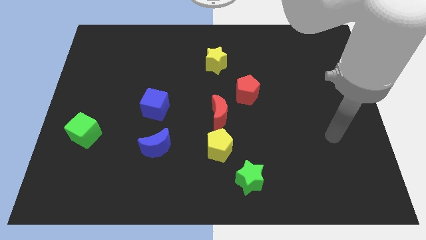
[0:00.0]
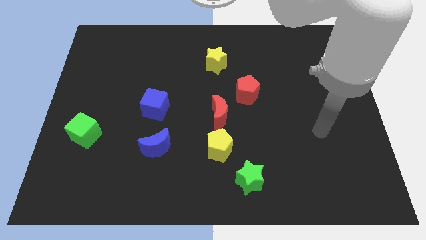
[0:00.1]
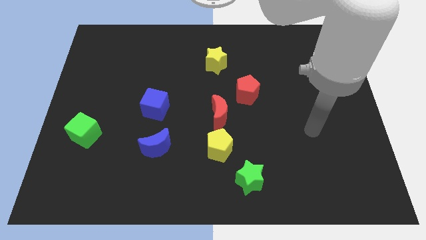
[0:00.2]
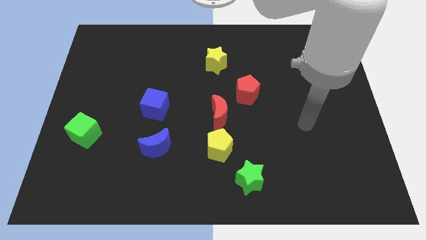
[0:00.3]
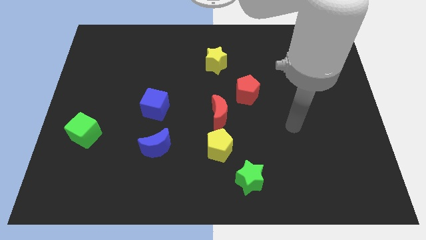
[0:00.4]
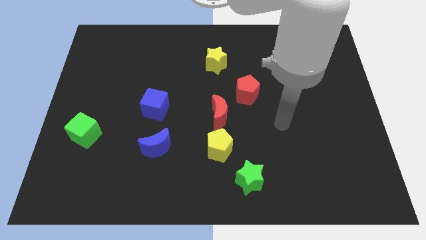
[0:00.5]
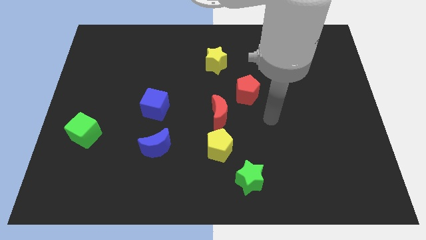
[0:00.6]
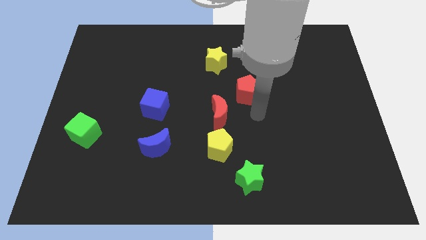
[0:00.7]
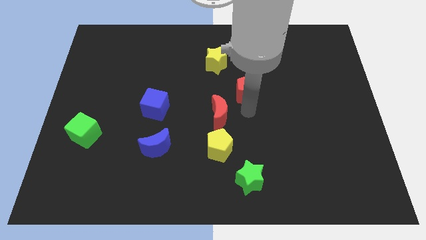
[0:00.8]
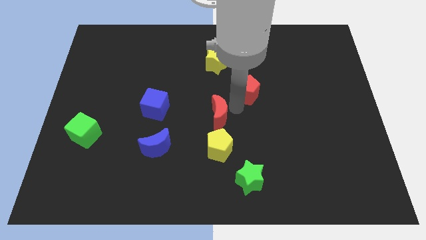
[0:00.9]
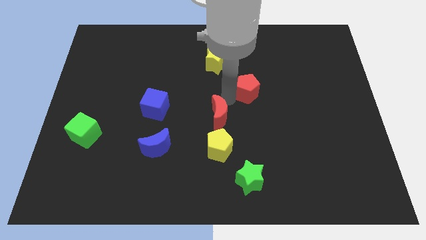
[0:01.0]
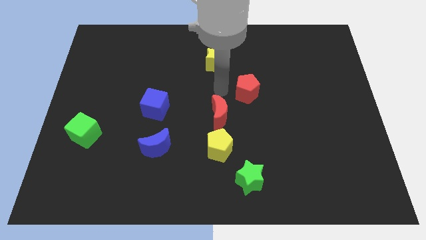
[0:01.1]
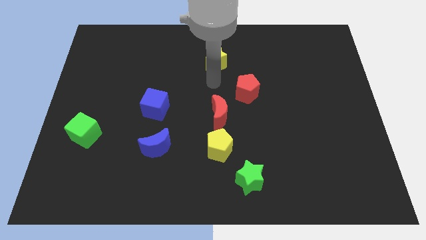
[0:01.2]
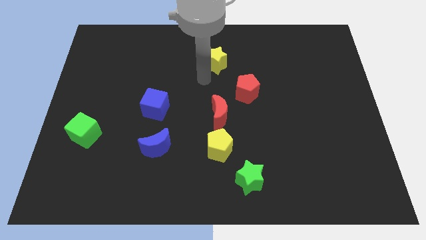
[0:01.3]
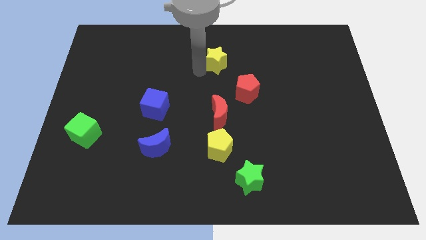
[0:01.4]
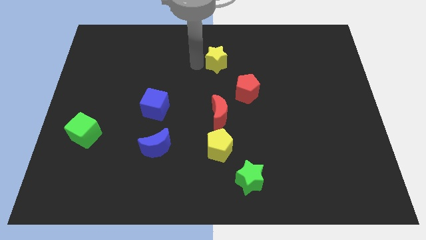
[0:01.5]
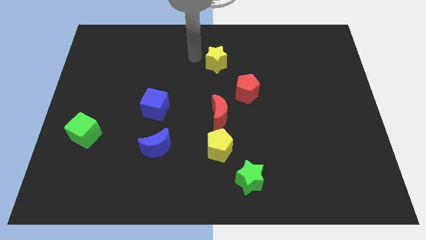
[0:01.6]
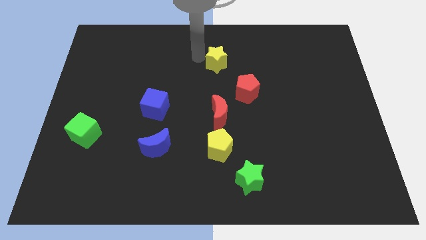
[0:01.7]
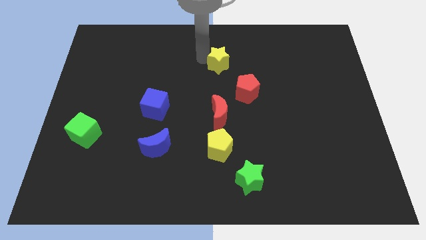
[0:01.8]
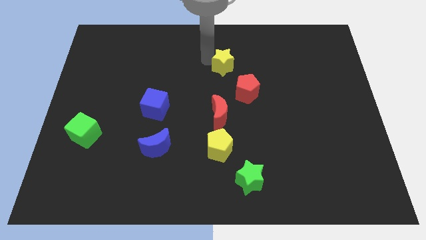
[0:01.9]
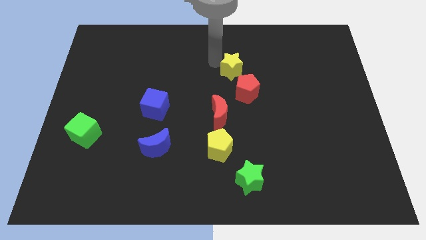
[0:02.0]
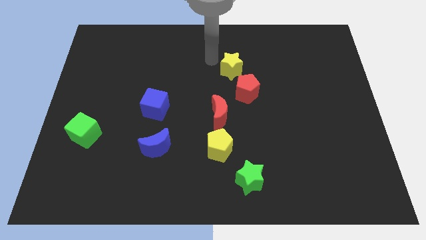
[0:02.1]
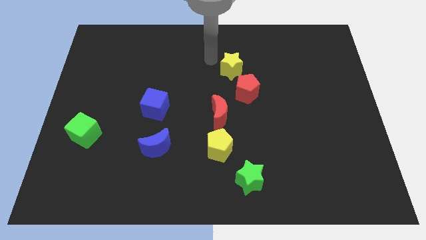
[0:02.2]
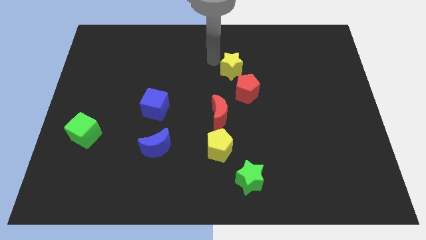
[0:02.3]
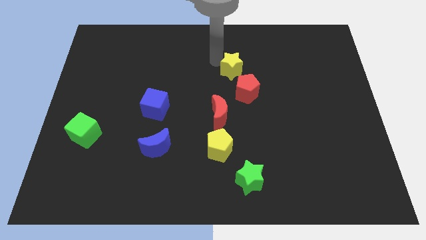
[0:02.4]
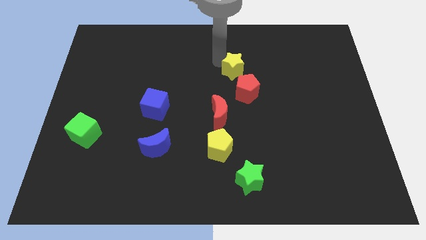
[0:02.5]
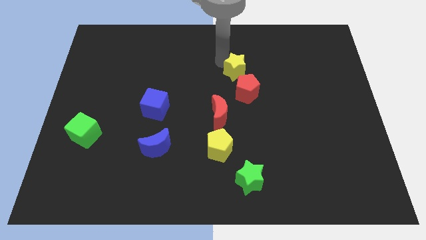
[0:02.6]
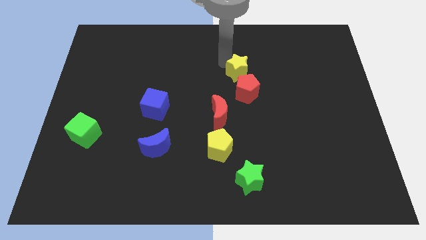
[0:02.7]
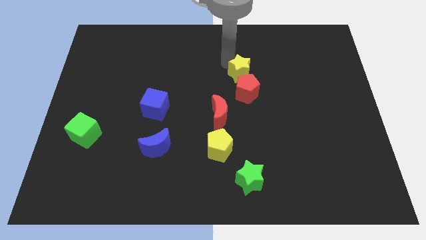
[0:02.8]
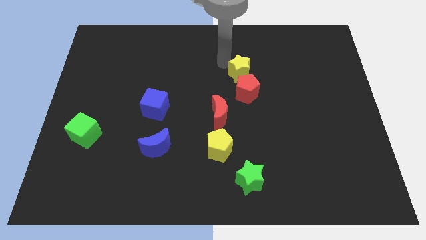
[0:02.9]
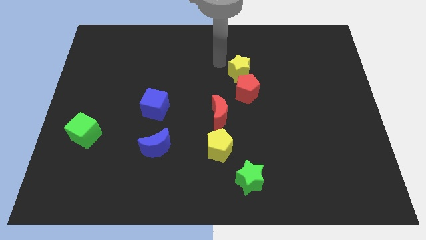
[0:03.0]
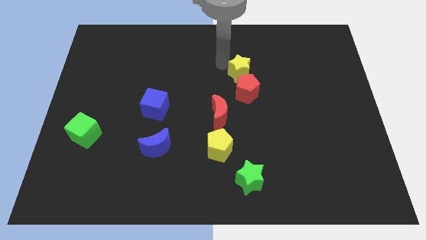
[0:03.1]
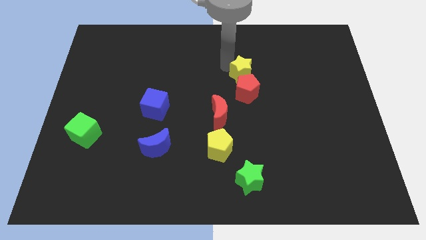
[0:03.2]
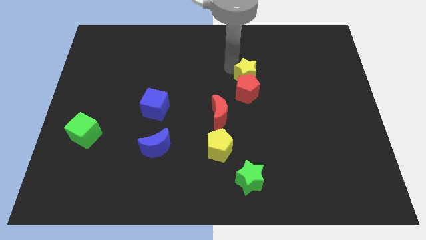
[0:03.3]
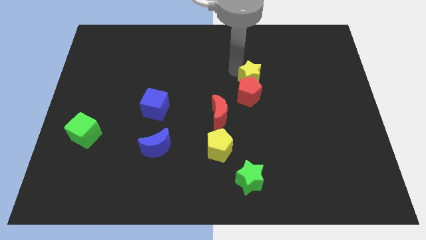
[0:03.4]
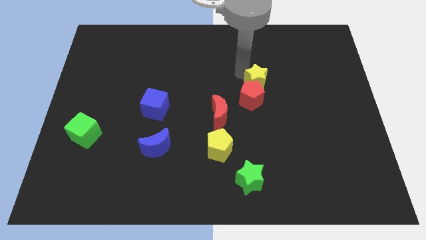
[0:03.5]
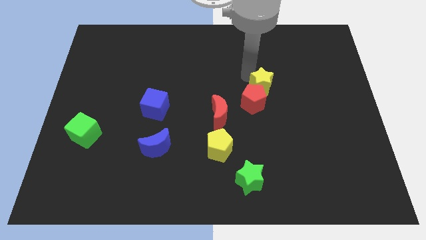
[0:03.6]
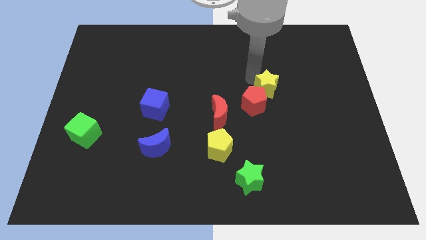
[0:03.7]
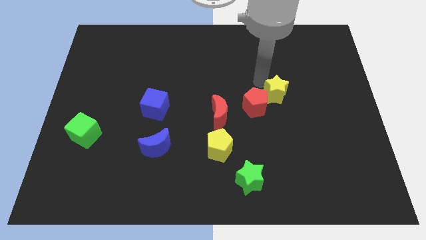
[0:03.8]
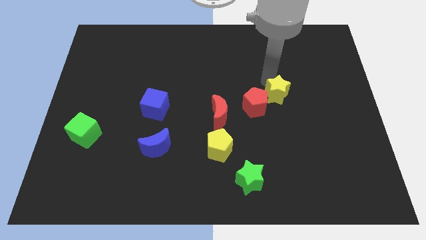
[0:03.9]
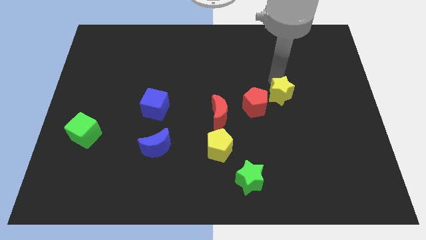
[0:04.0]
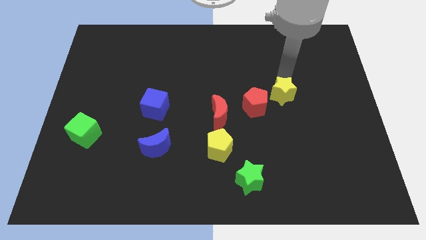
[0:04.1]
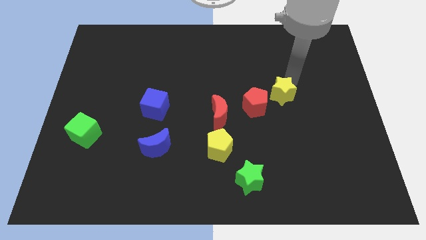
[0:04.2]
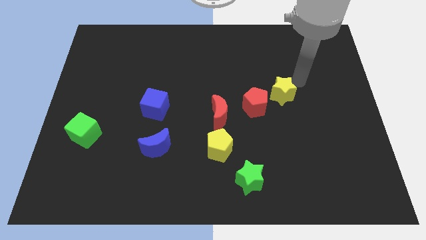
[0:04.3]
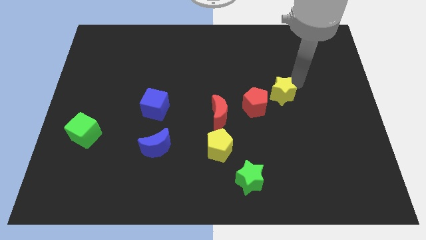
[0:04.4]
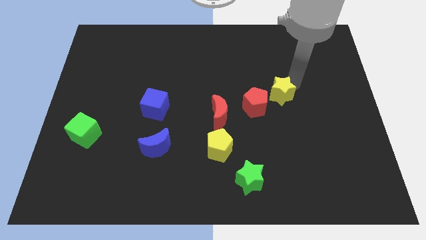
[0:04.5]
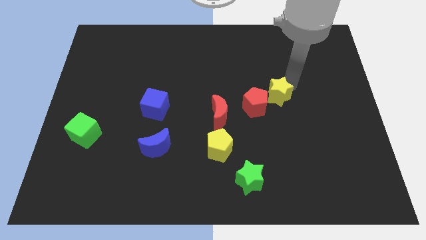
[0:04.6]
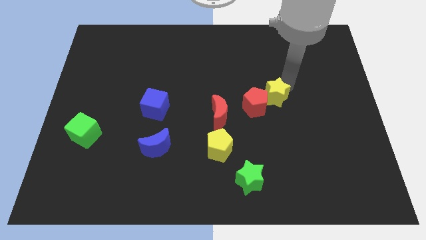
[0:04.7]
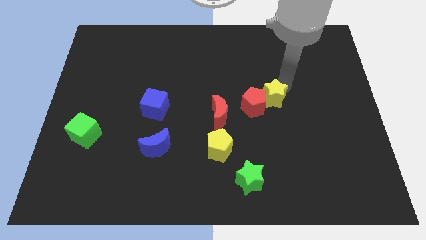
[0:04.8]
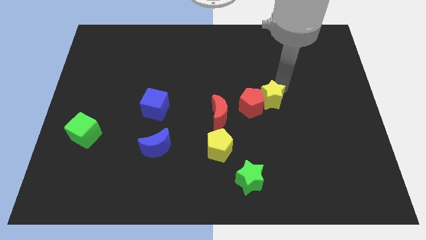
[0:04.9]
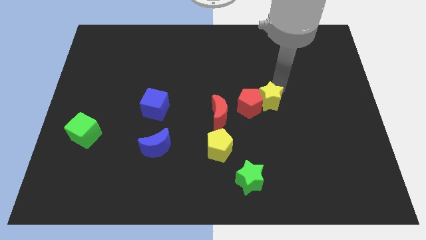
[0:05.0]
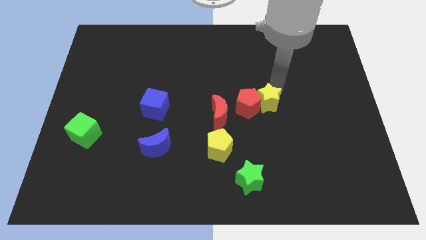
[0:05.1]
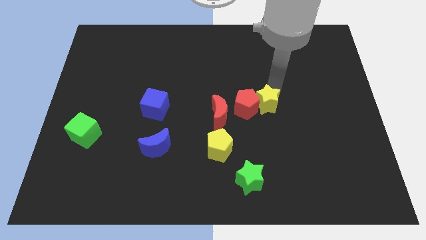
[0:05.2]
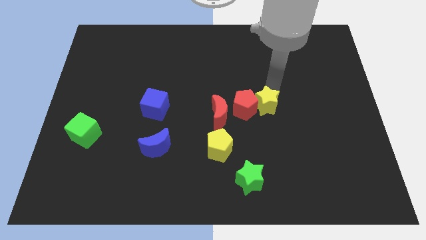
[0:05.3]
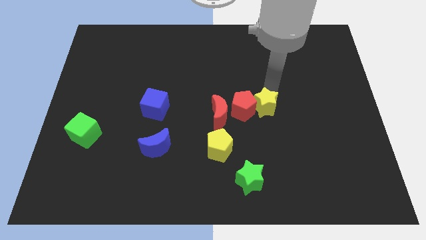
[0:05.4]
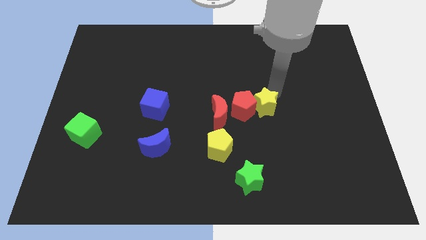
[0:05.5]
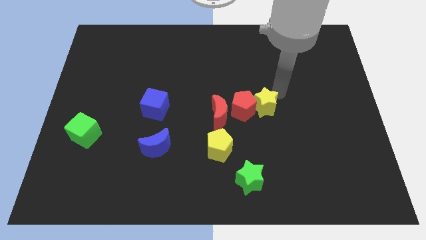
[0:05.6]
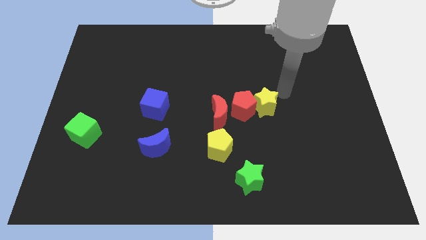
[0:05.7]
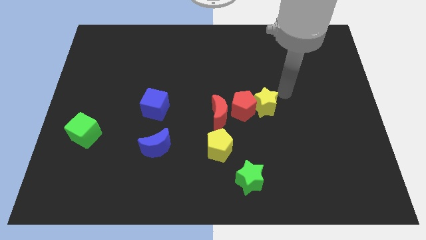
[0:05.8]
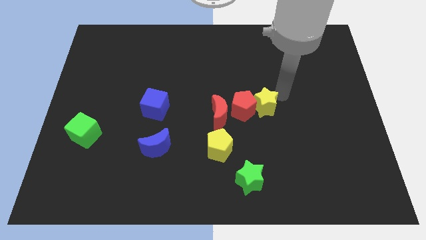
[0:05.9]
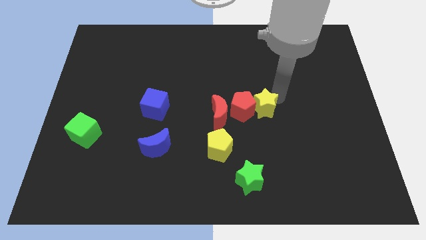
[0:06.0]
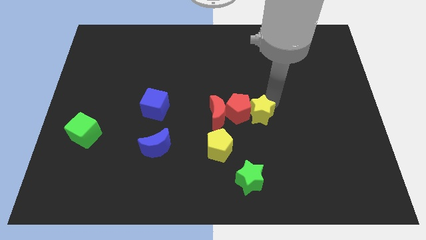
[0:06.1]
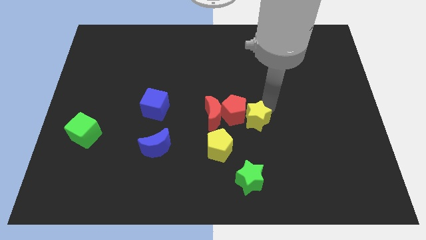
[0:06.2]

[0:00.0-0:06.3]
push the yellow star to the top right side of the yellow pentagon

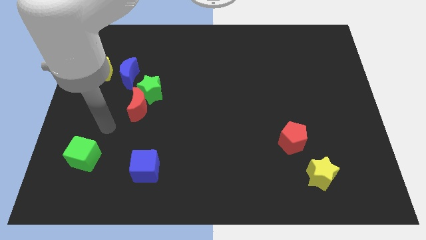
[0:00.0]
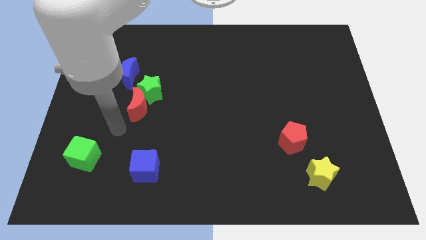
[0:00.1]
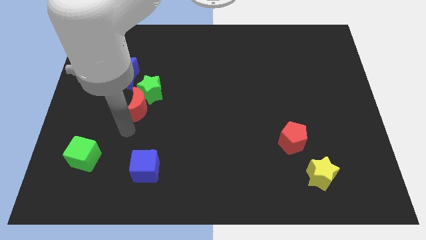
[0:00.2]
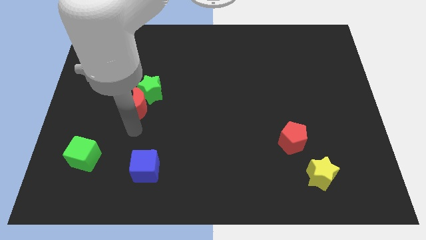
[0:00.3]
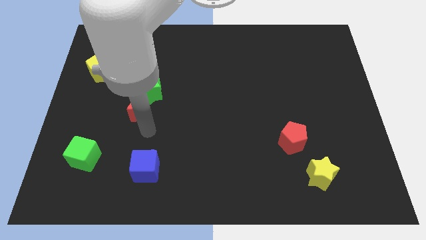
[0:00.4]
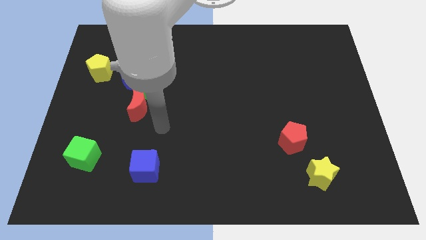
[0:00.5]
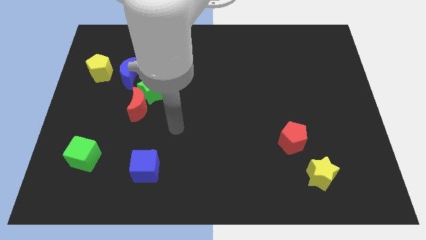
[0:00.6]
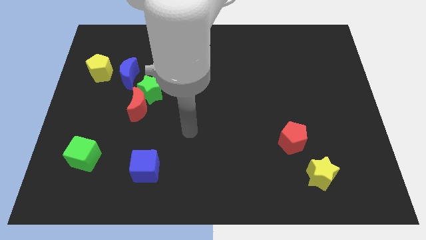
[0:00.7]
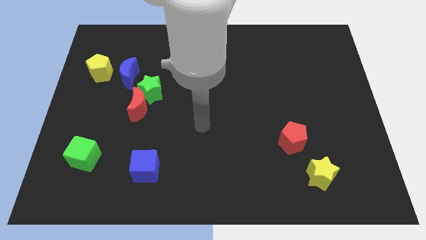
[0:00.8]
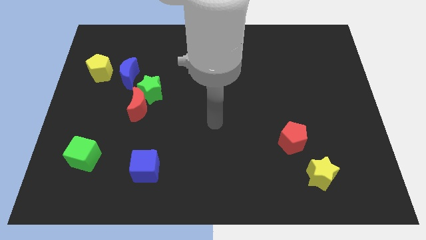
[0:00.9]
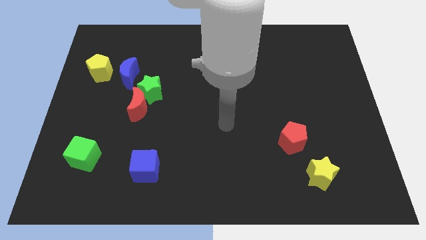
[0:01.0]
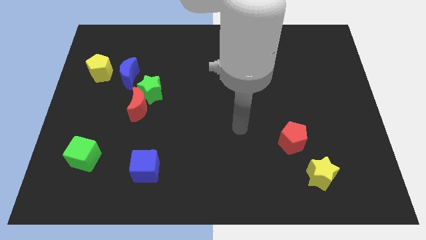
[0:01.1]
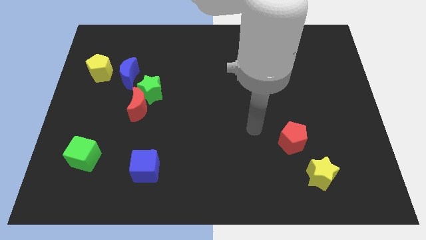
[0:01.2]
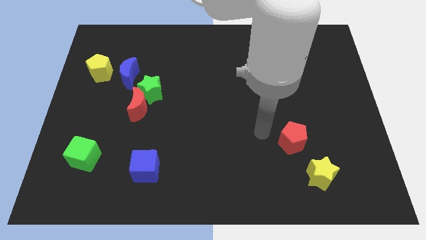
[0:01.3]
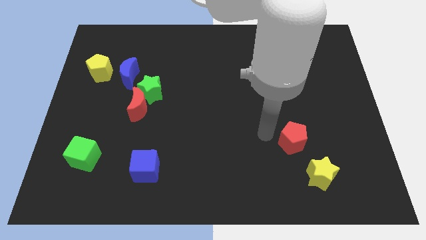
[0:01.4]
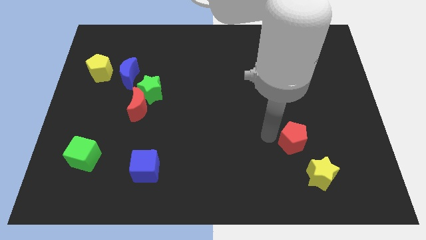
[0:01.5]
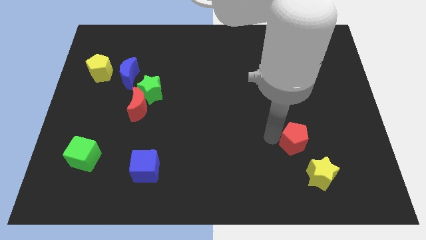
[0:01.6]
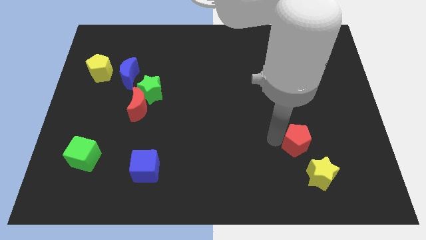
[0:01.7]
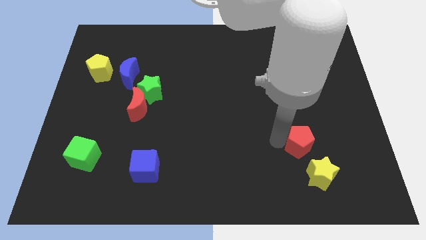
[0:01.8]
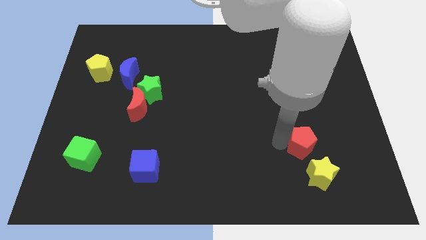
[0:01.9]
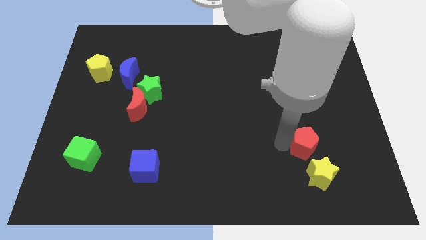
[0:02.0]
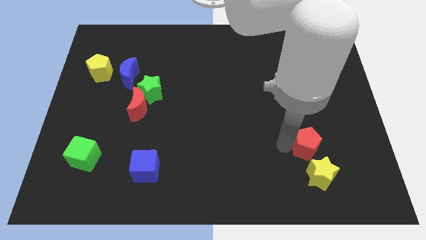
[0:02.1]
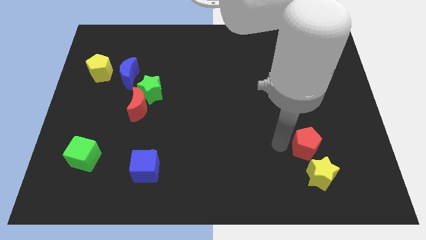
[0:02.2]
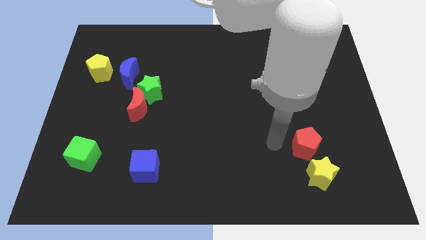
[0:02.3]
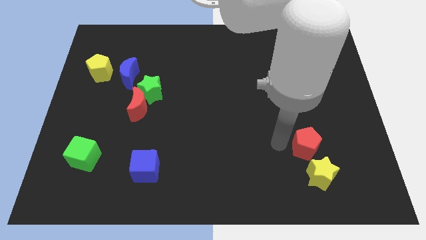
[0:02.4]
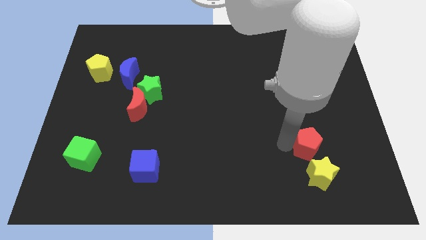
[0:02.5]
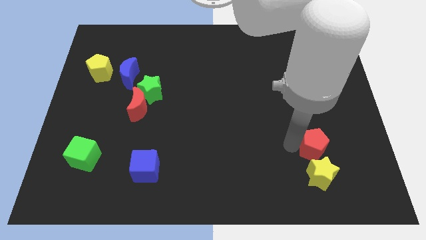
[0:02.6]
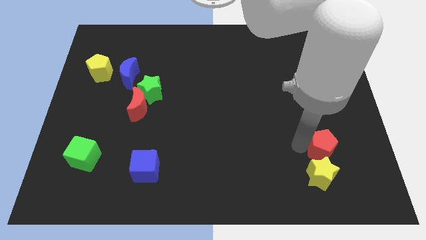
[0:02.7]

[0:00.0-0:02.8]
push the red pentagon to the top right side of the yellow star
